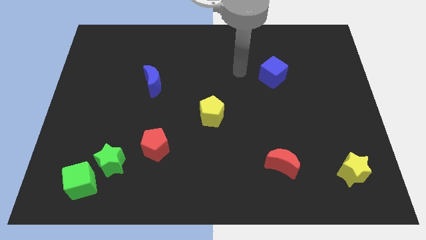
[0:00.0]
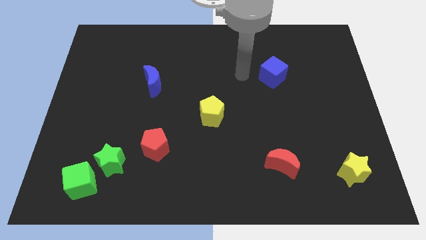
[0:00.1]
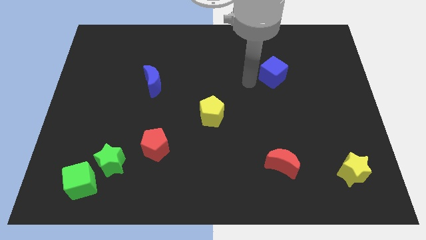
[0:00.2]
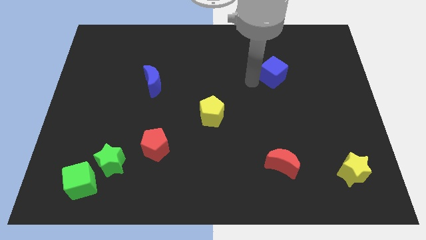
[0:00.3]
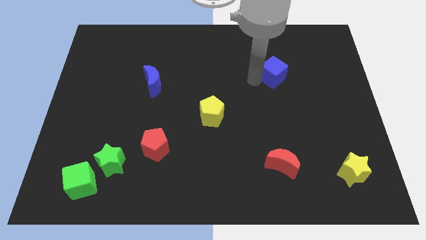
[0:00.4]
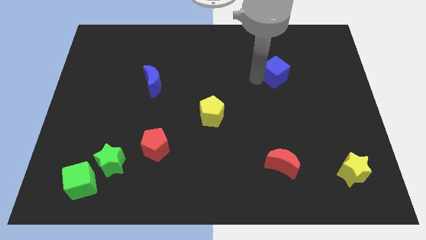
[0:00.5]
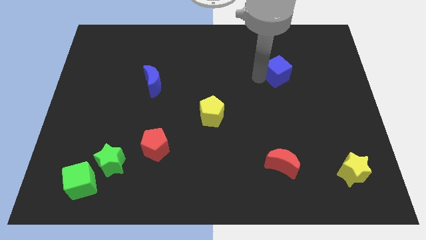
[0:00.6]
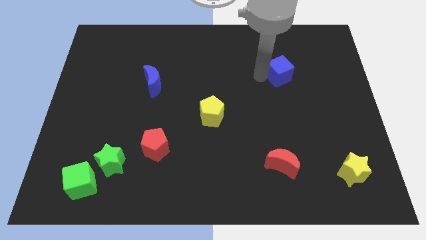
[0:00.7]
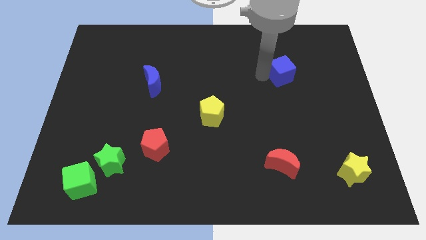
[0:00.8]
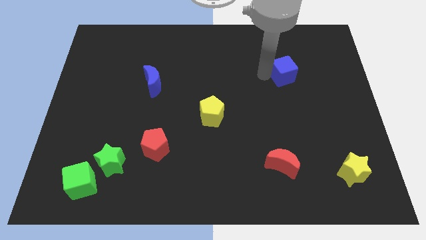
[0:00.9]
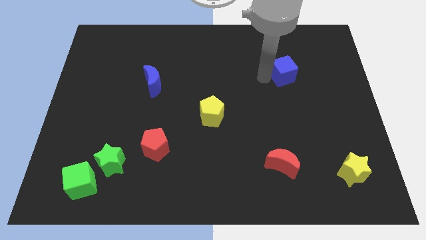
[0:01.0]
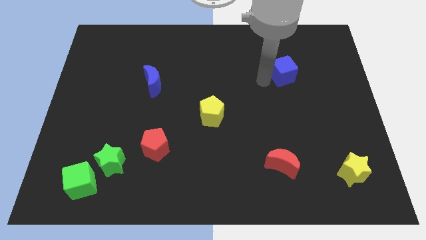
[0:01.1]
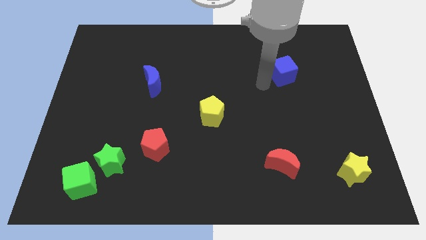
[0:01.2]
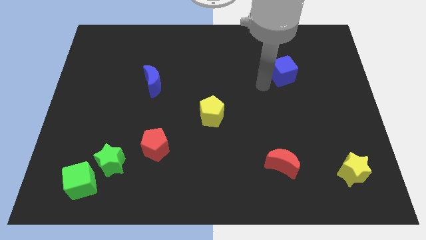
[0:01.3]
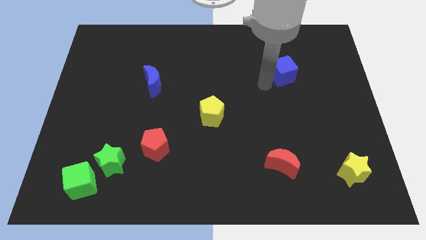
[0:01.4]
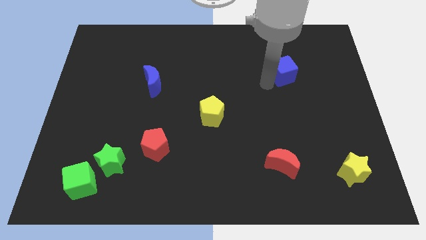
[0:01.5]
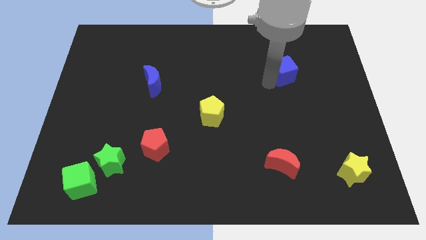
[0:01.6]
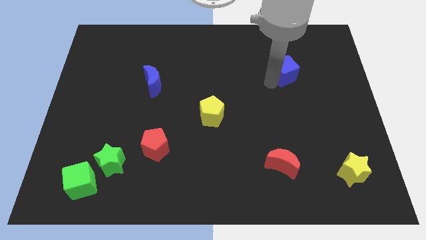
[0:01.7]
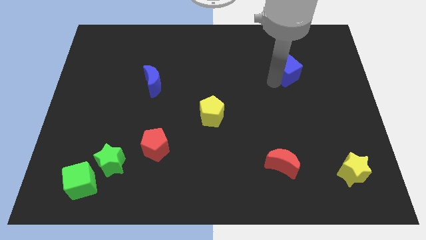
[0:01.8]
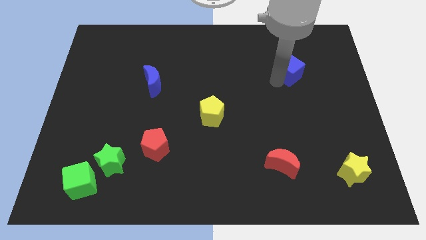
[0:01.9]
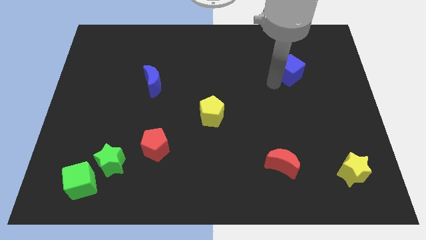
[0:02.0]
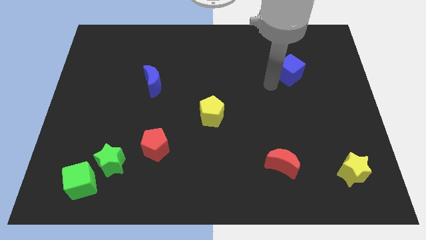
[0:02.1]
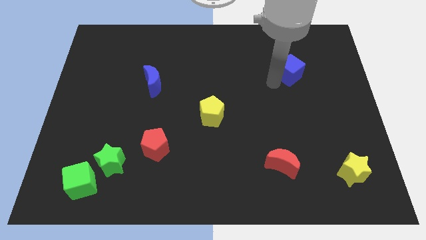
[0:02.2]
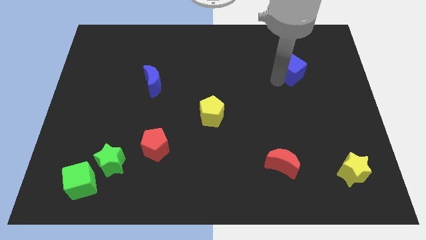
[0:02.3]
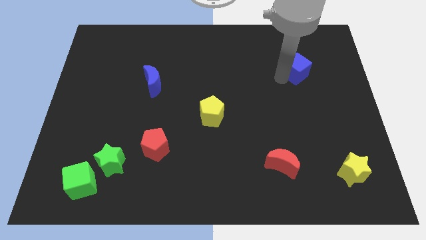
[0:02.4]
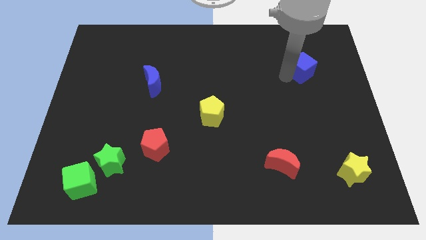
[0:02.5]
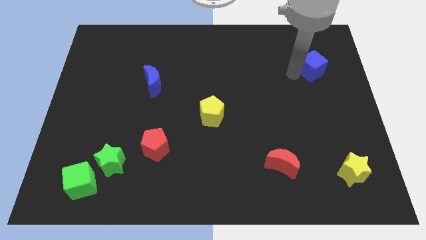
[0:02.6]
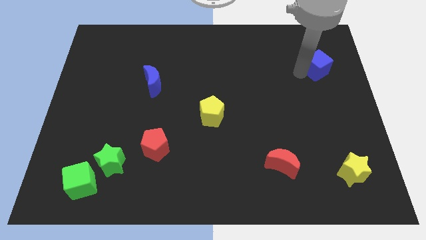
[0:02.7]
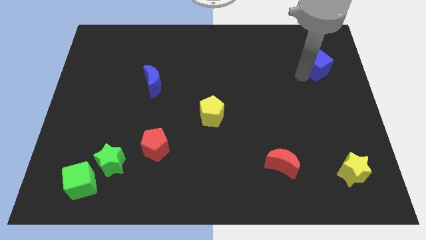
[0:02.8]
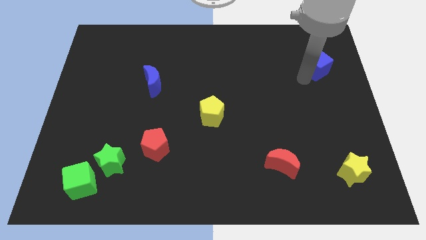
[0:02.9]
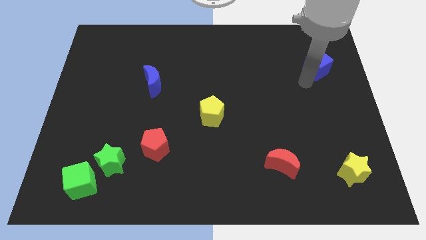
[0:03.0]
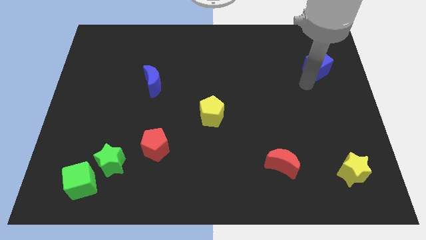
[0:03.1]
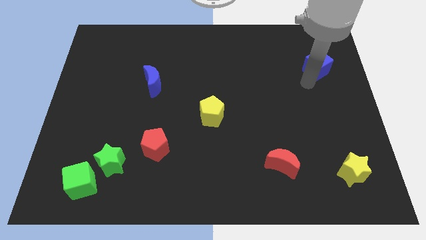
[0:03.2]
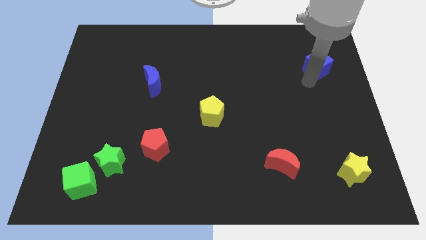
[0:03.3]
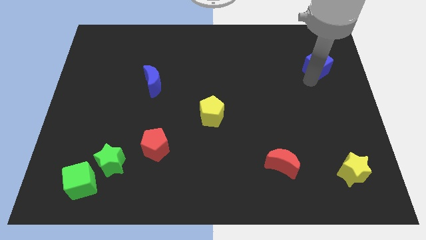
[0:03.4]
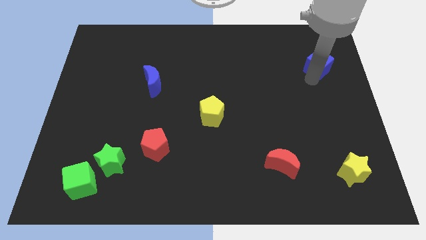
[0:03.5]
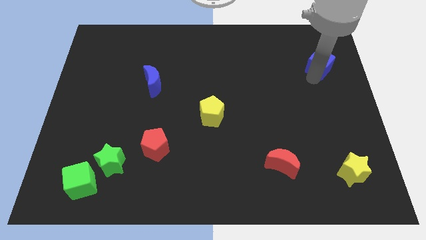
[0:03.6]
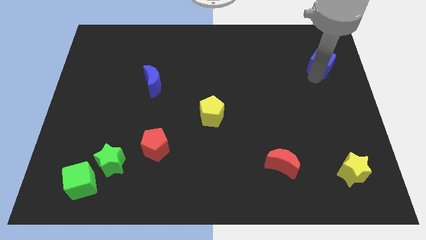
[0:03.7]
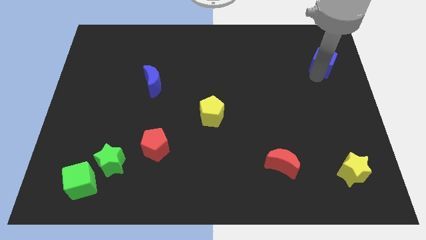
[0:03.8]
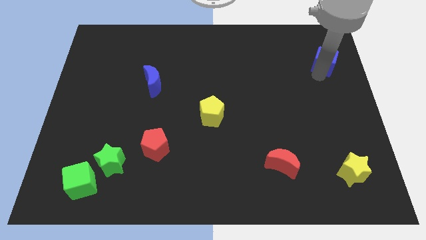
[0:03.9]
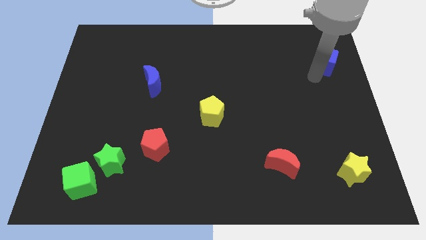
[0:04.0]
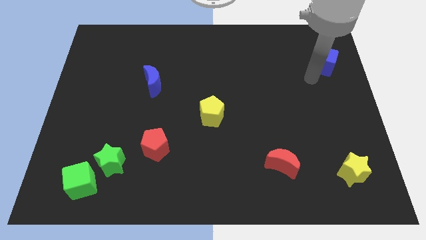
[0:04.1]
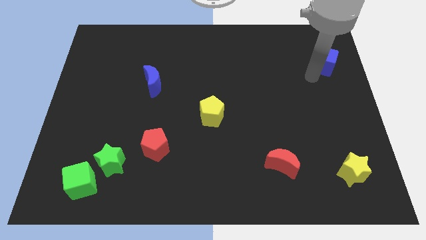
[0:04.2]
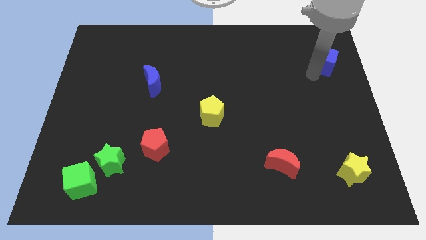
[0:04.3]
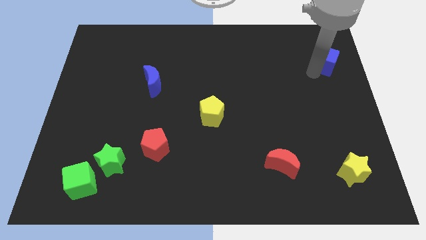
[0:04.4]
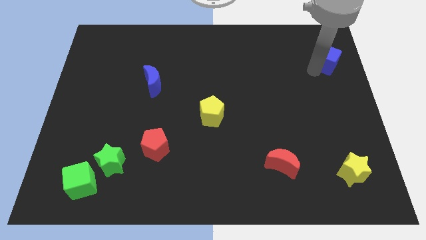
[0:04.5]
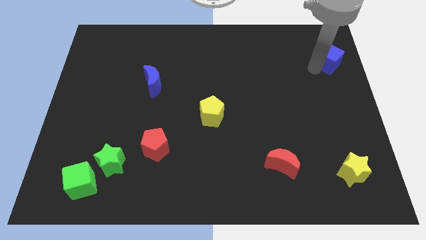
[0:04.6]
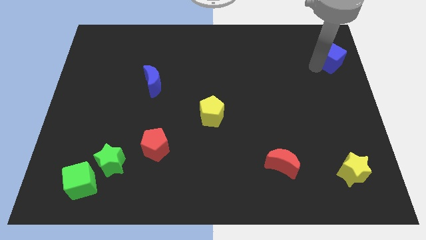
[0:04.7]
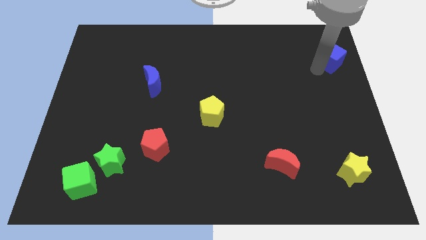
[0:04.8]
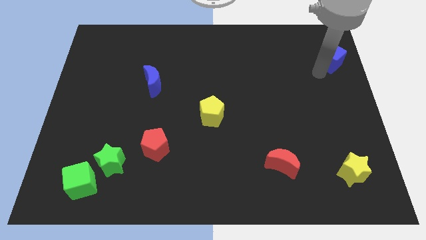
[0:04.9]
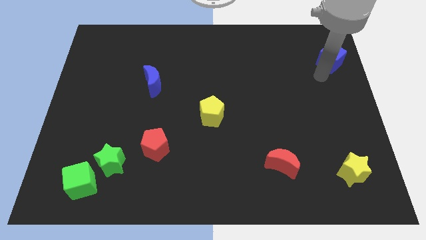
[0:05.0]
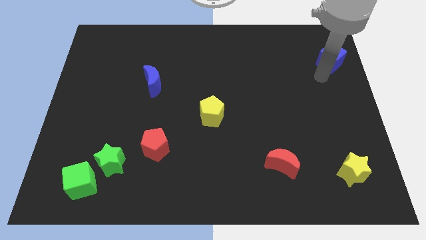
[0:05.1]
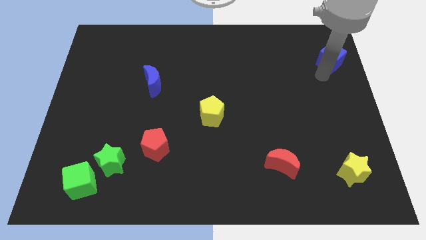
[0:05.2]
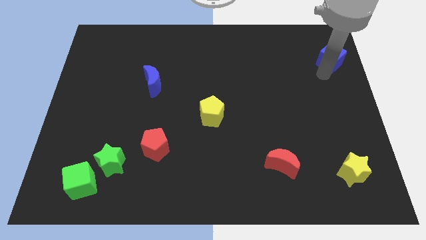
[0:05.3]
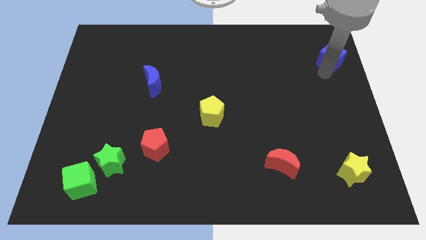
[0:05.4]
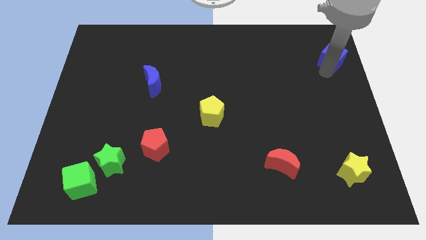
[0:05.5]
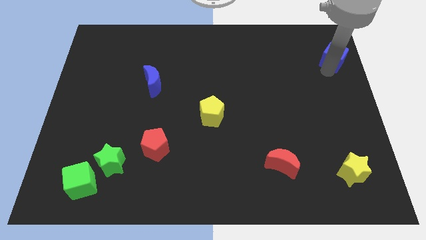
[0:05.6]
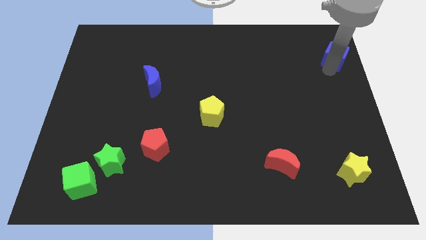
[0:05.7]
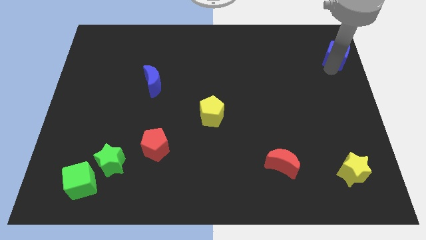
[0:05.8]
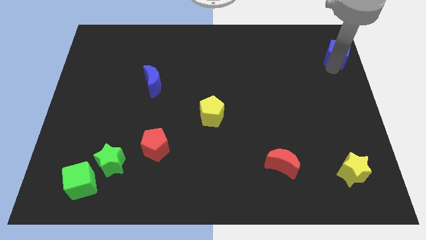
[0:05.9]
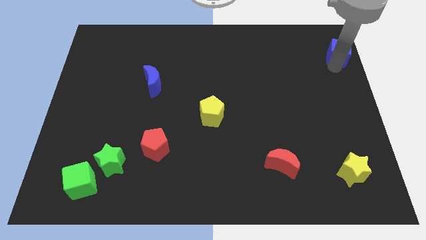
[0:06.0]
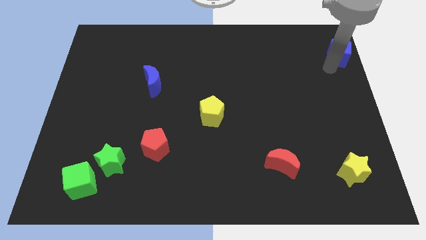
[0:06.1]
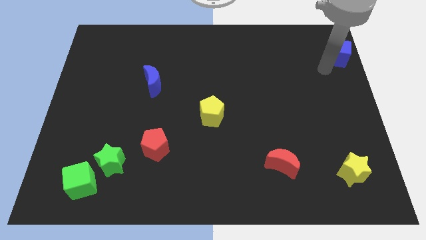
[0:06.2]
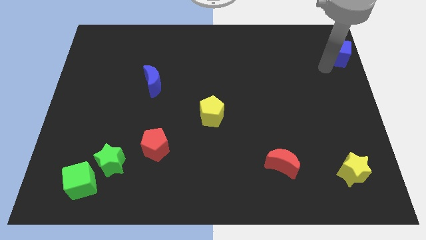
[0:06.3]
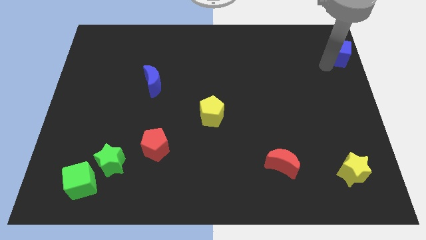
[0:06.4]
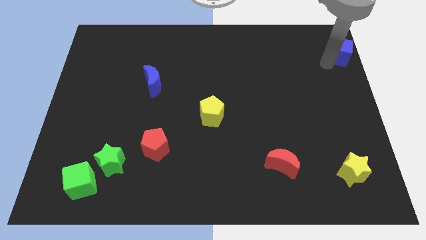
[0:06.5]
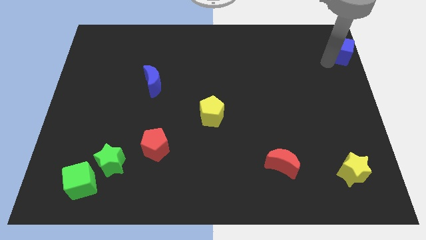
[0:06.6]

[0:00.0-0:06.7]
put the blue cube to the top right of the board
